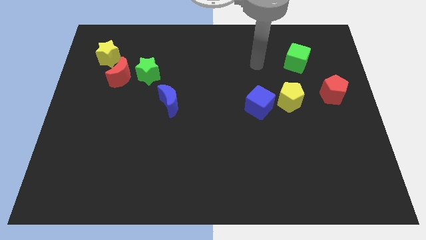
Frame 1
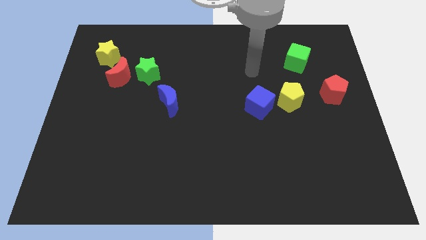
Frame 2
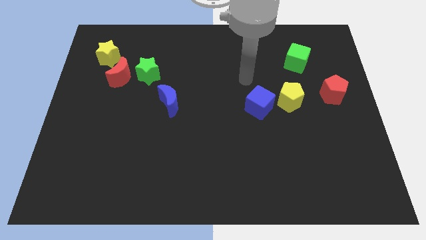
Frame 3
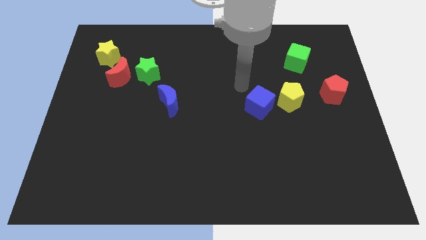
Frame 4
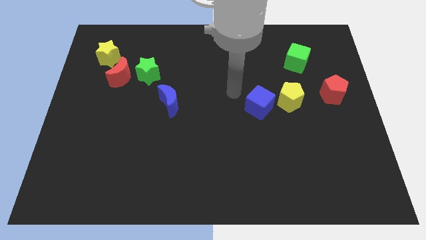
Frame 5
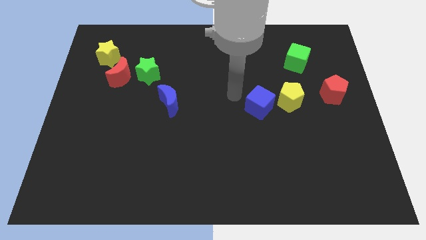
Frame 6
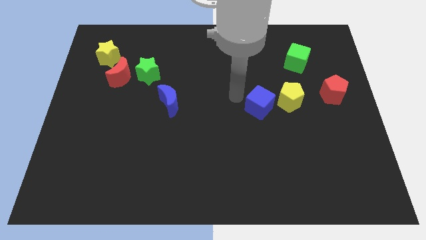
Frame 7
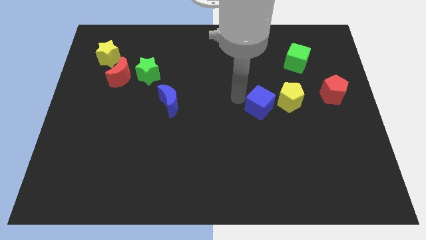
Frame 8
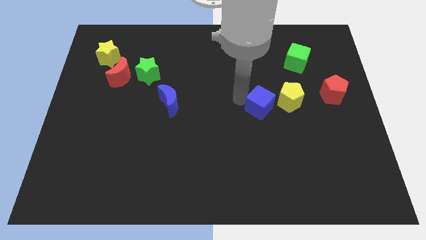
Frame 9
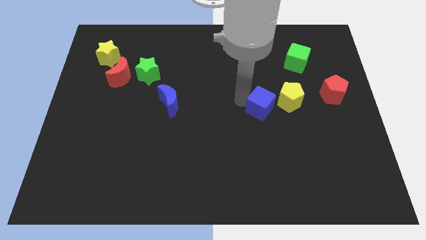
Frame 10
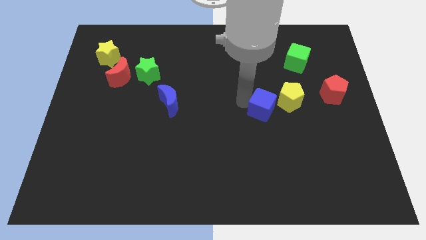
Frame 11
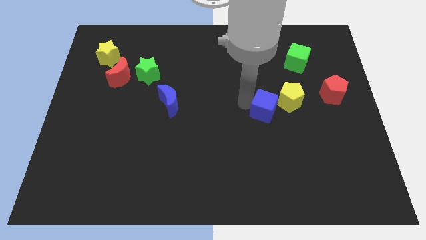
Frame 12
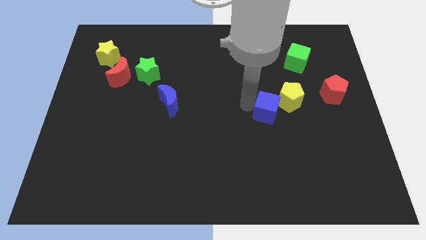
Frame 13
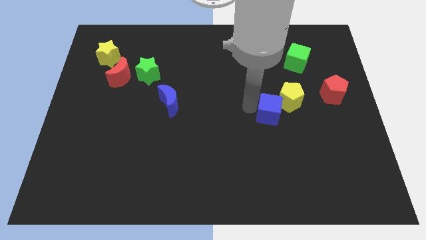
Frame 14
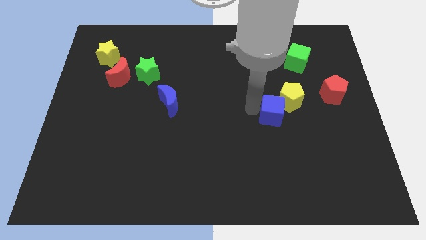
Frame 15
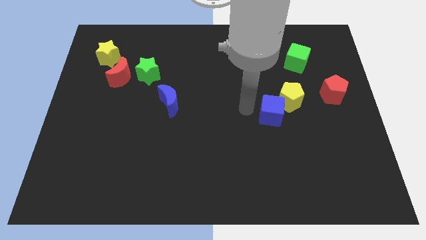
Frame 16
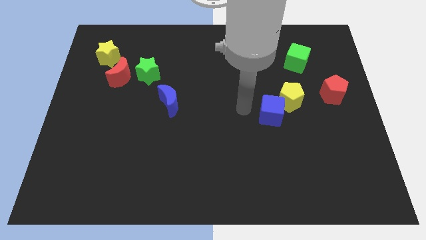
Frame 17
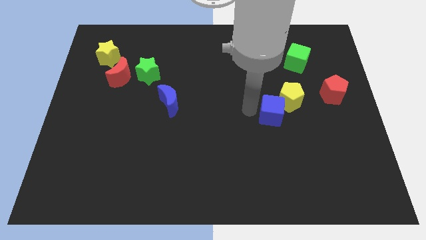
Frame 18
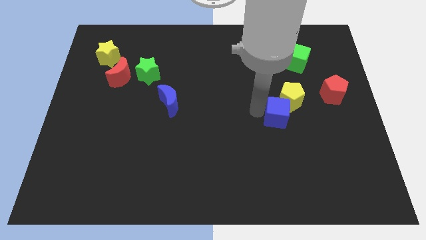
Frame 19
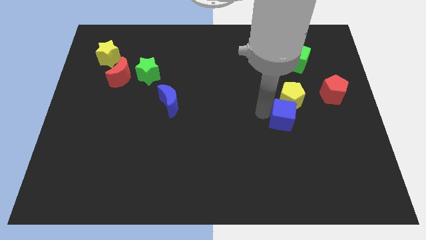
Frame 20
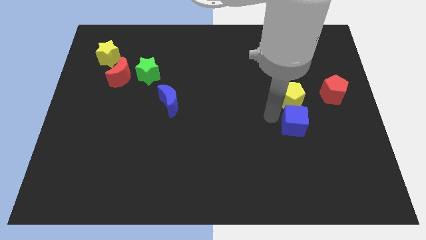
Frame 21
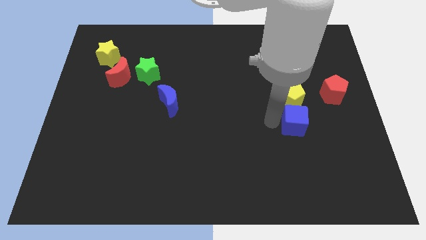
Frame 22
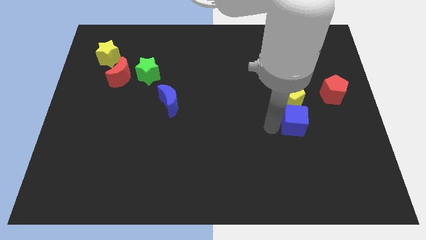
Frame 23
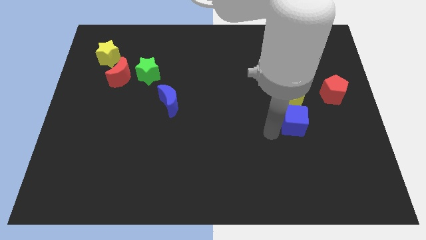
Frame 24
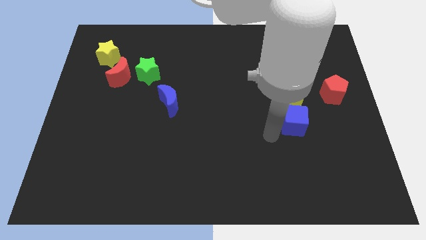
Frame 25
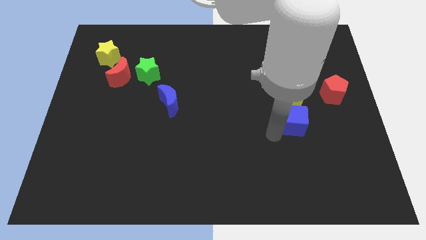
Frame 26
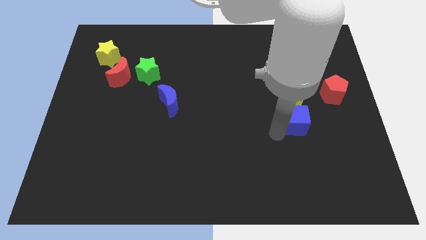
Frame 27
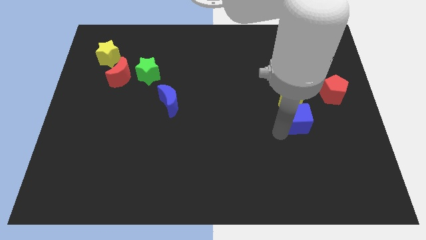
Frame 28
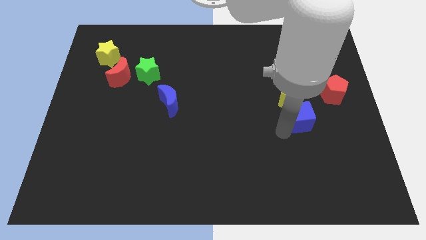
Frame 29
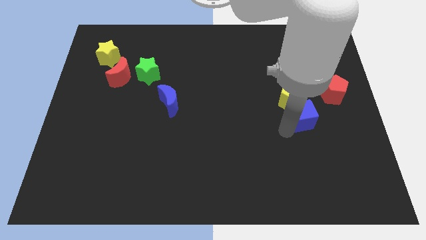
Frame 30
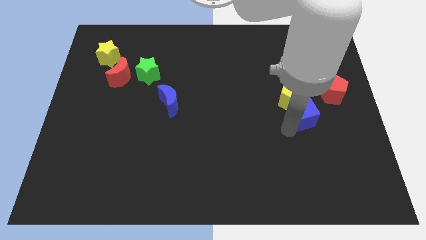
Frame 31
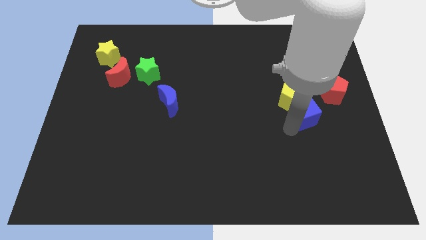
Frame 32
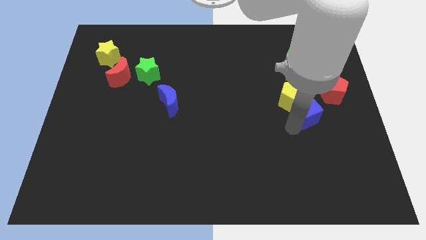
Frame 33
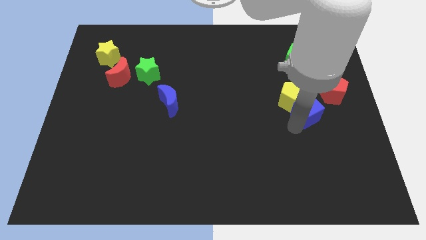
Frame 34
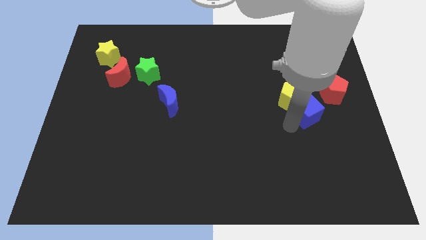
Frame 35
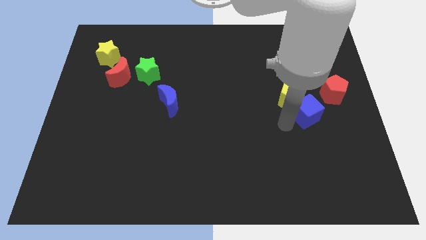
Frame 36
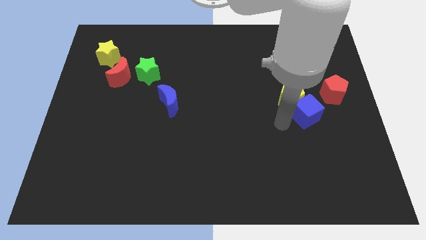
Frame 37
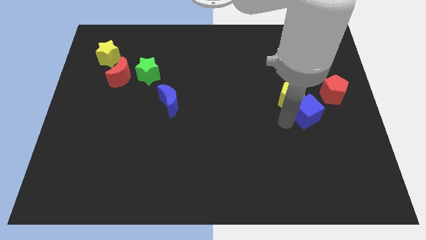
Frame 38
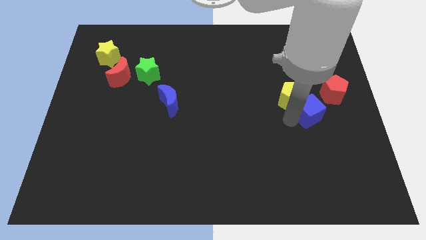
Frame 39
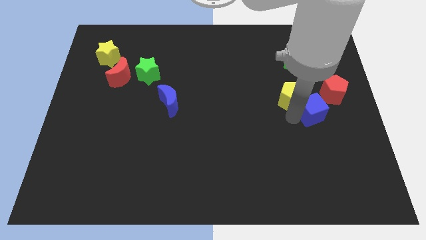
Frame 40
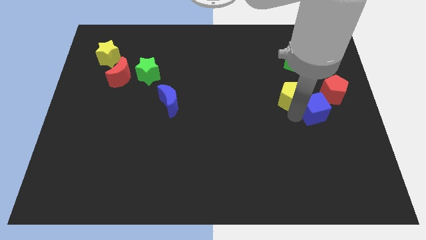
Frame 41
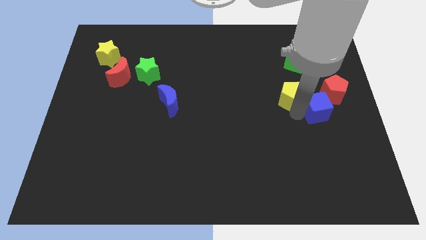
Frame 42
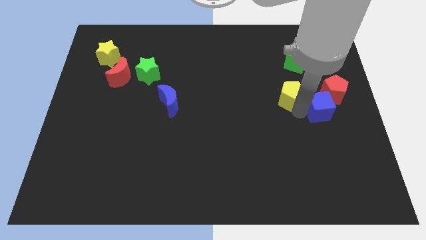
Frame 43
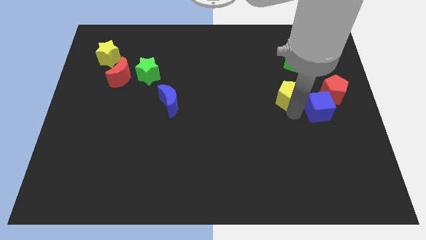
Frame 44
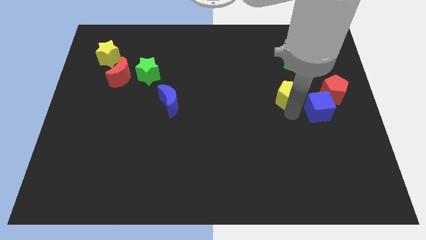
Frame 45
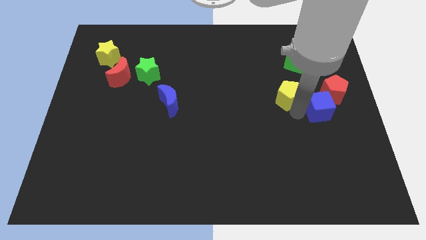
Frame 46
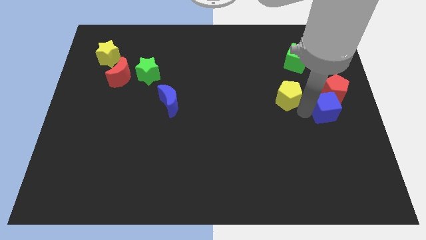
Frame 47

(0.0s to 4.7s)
slide the blue cube to the right side of the board

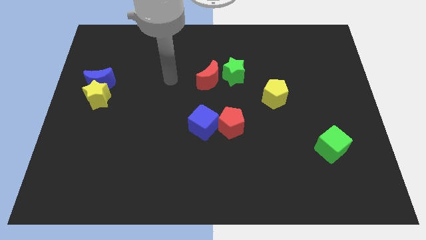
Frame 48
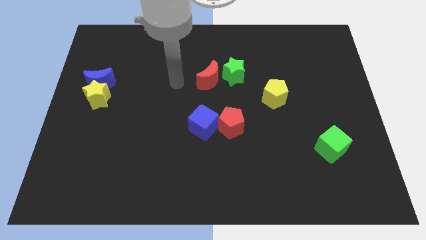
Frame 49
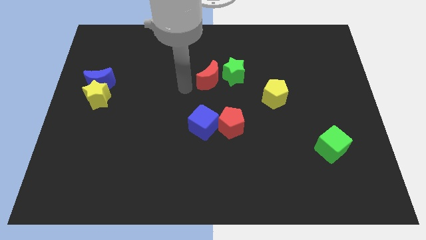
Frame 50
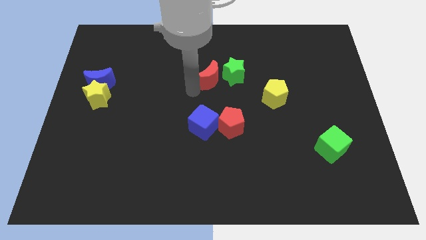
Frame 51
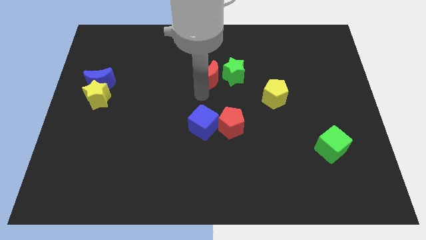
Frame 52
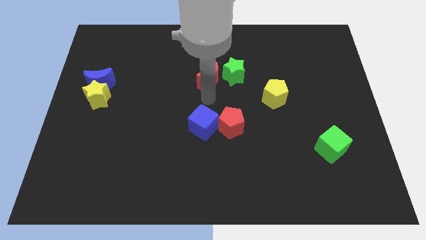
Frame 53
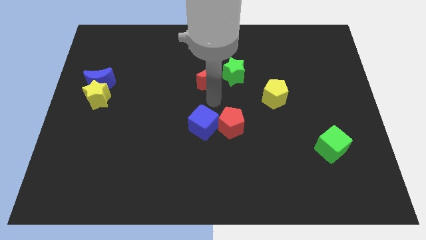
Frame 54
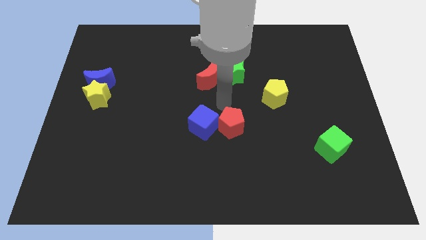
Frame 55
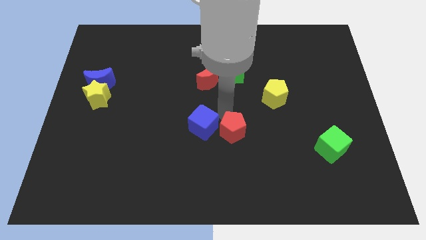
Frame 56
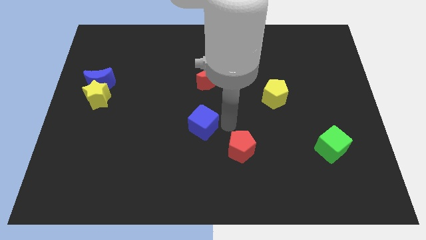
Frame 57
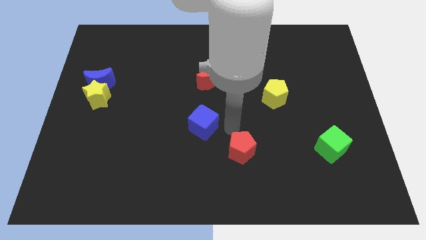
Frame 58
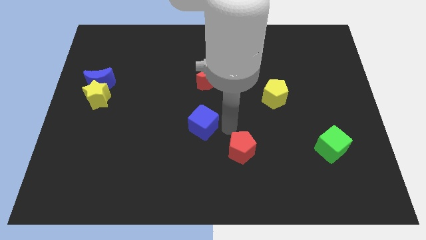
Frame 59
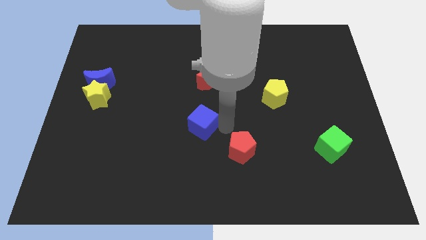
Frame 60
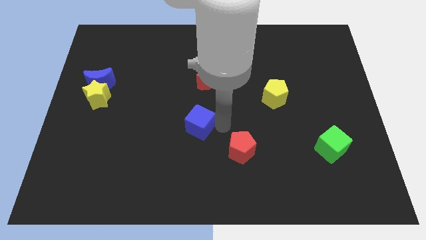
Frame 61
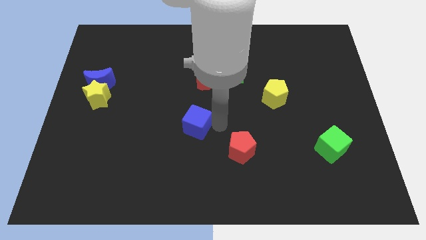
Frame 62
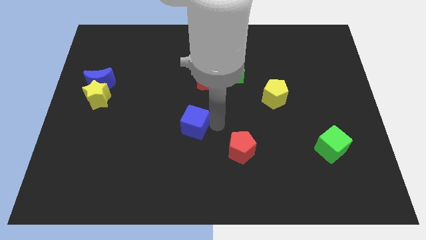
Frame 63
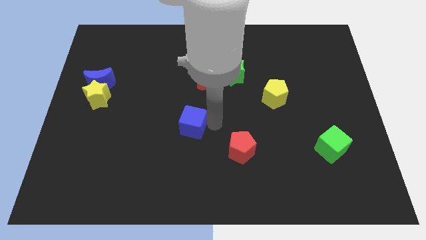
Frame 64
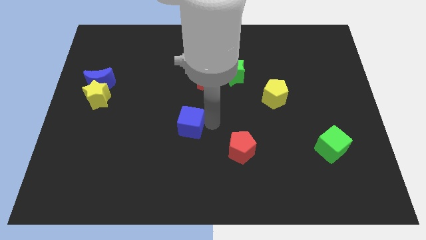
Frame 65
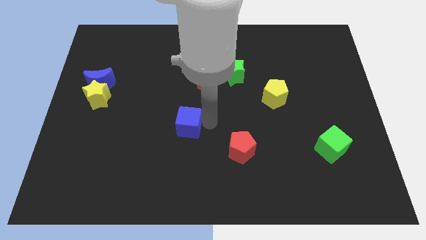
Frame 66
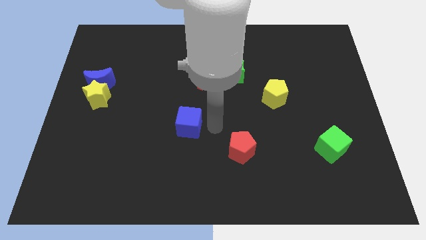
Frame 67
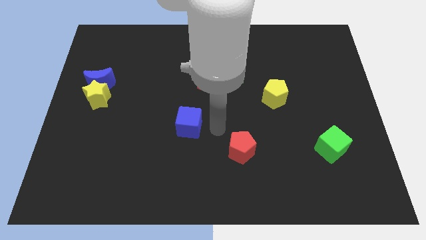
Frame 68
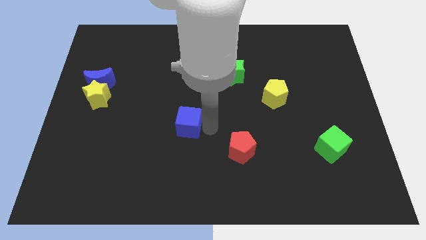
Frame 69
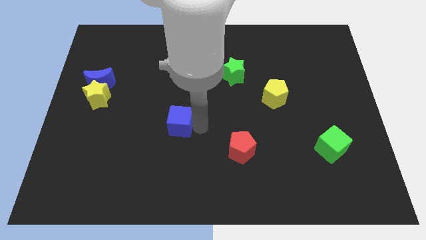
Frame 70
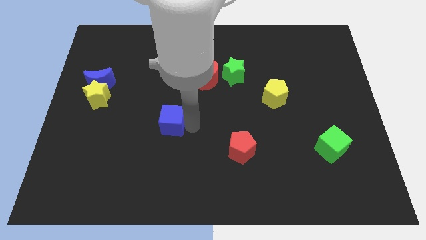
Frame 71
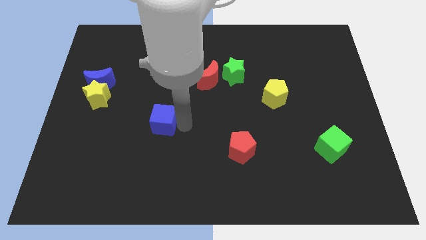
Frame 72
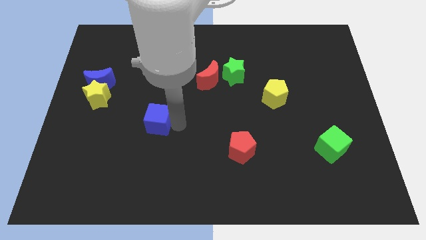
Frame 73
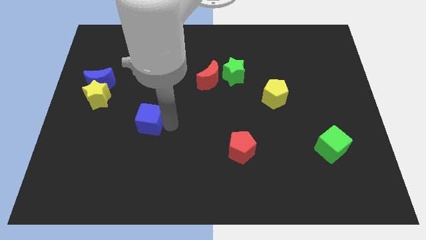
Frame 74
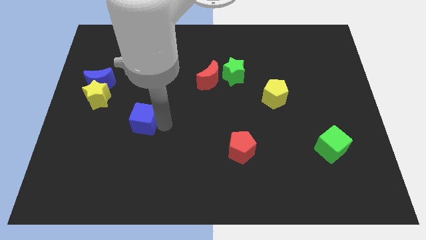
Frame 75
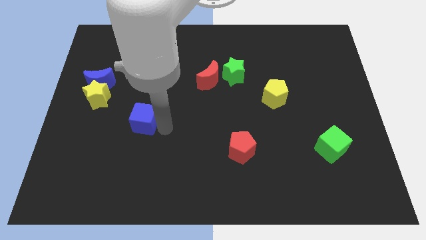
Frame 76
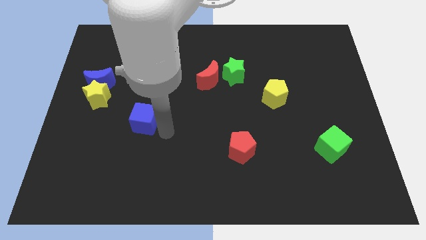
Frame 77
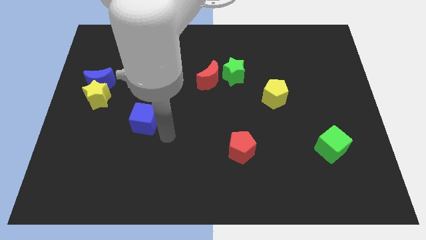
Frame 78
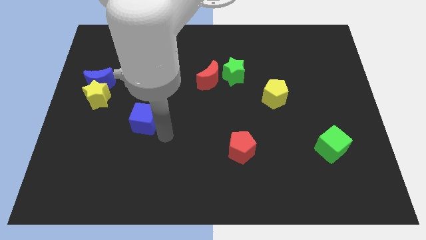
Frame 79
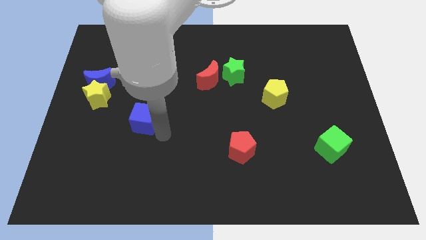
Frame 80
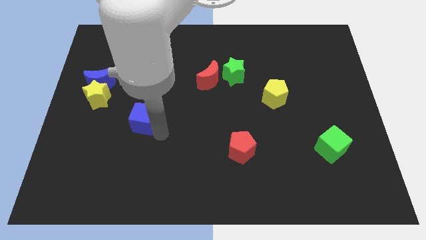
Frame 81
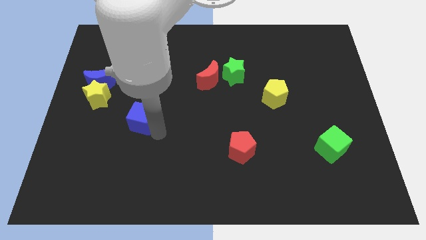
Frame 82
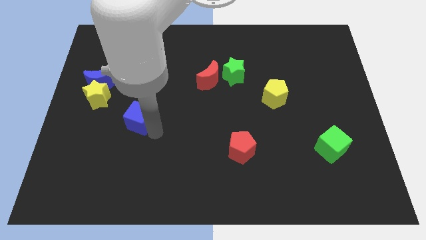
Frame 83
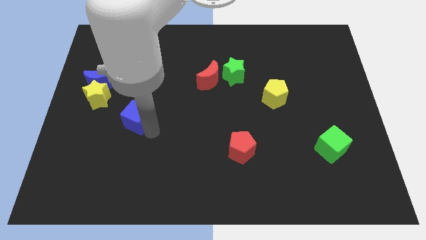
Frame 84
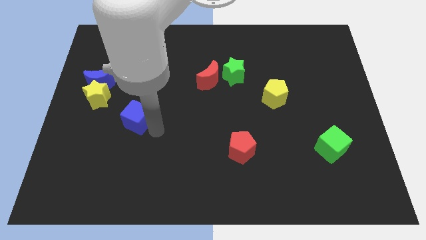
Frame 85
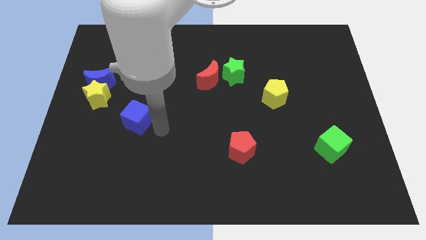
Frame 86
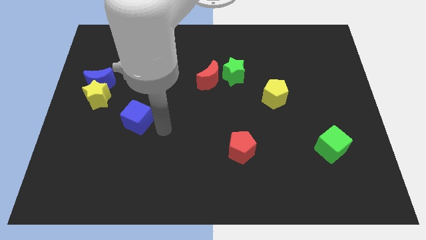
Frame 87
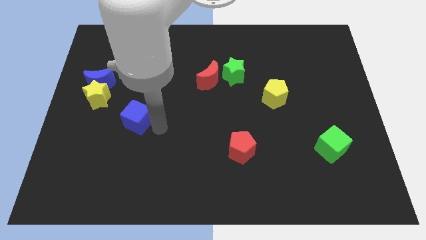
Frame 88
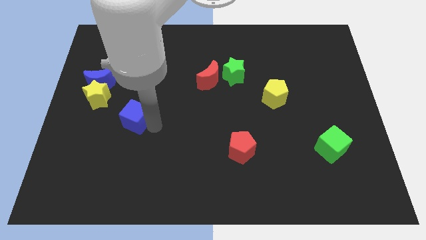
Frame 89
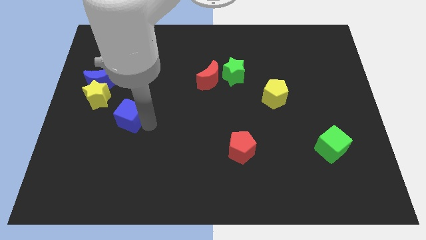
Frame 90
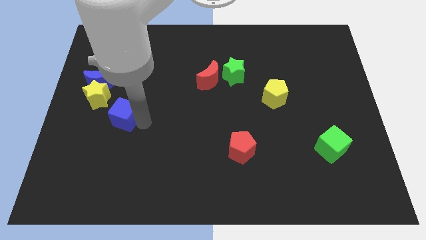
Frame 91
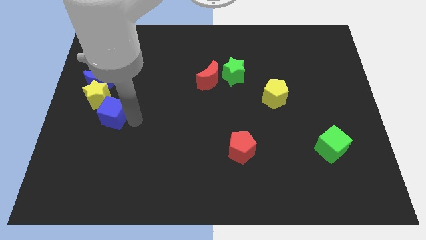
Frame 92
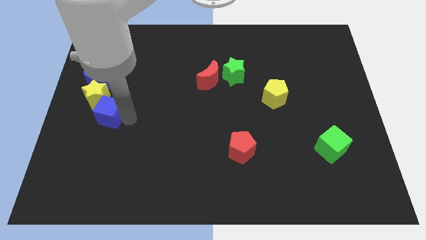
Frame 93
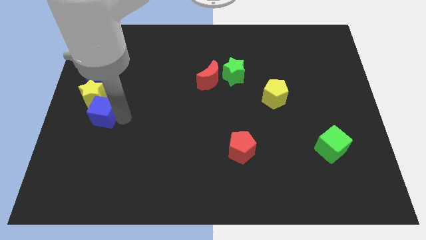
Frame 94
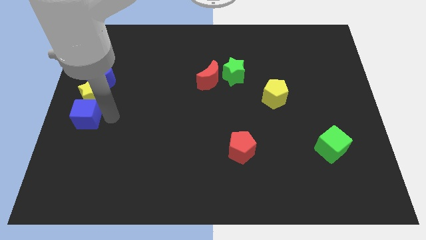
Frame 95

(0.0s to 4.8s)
push the blue cube to the center left
